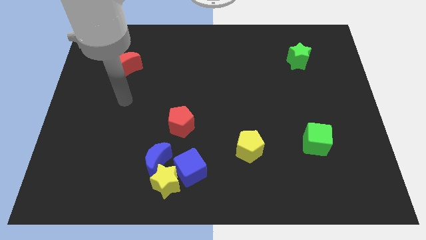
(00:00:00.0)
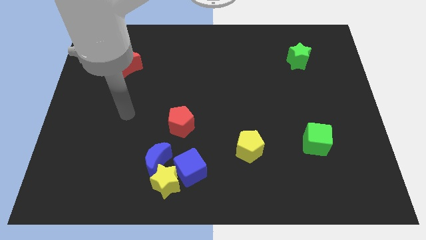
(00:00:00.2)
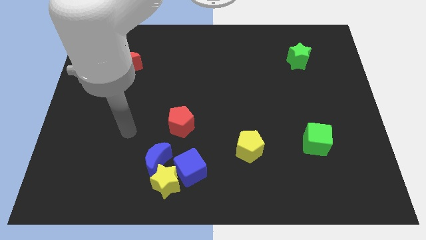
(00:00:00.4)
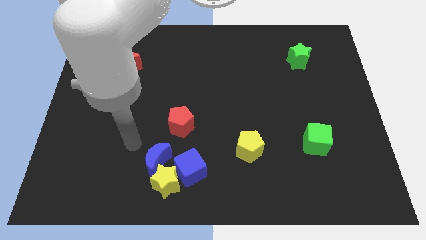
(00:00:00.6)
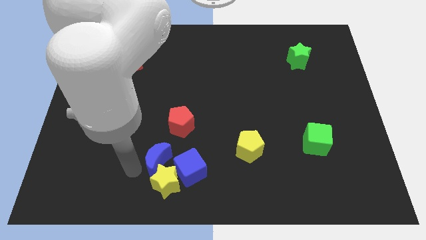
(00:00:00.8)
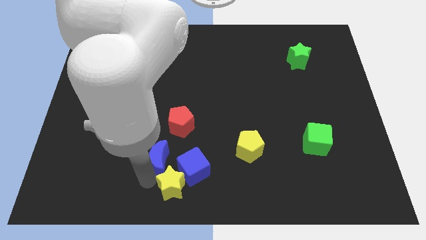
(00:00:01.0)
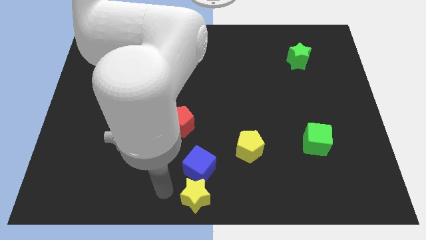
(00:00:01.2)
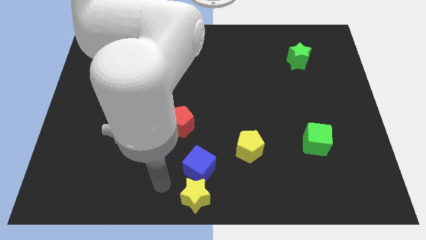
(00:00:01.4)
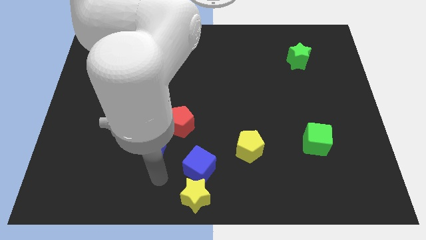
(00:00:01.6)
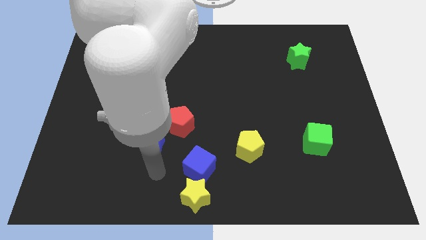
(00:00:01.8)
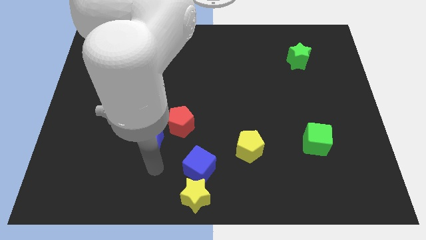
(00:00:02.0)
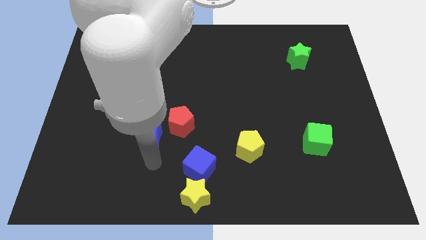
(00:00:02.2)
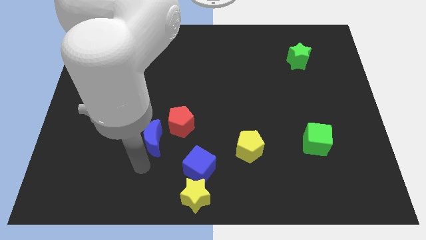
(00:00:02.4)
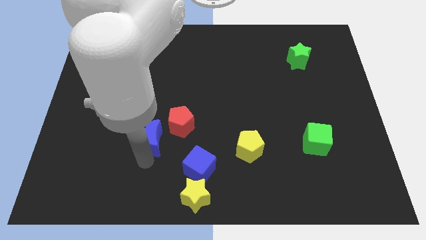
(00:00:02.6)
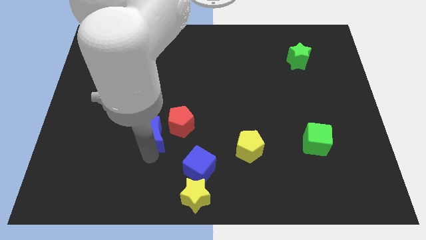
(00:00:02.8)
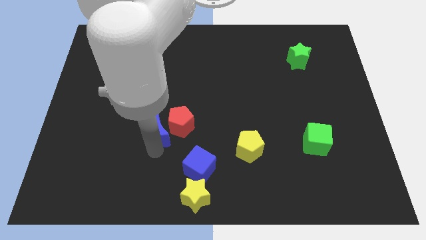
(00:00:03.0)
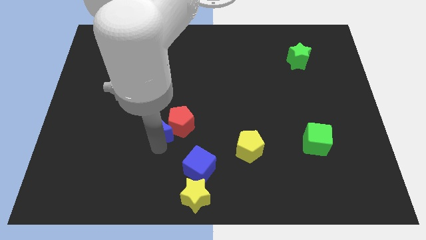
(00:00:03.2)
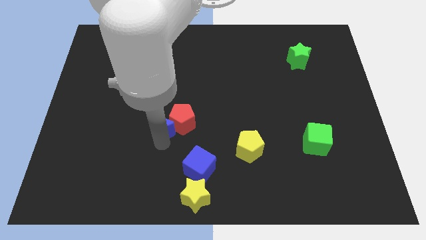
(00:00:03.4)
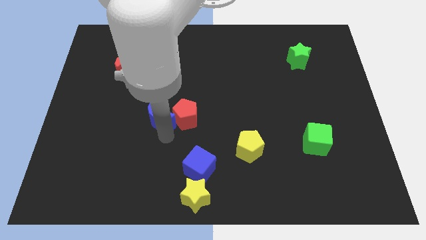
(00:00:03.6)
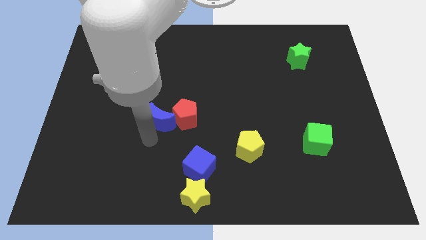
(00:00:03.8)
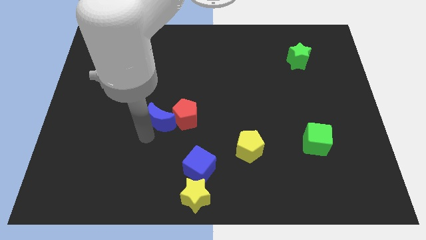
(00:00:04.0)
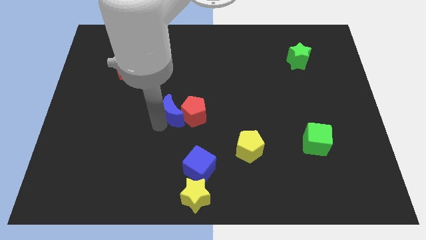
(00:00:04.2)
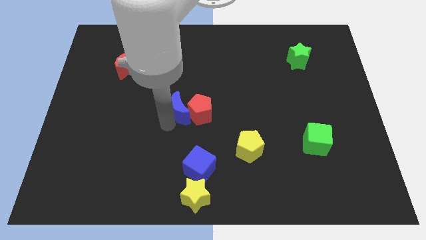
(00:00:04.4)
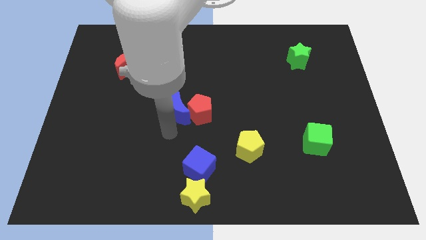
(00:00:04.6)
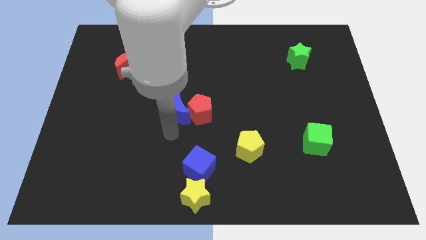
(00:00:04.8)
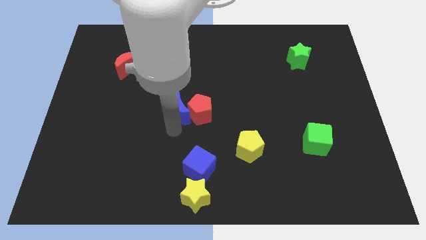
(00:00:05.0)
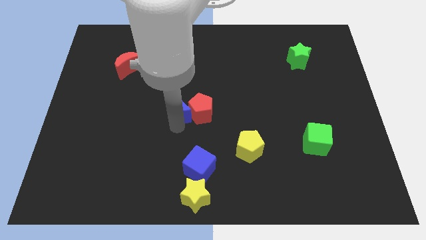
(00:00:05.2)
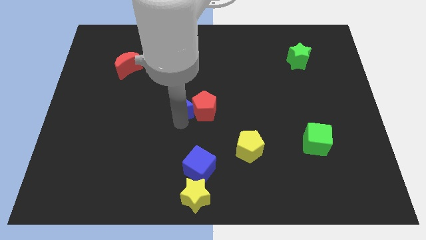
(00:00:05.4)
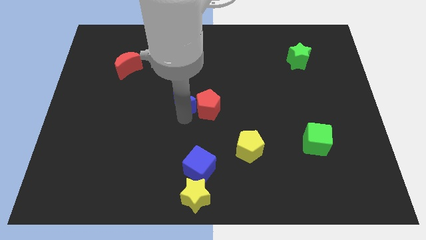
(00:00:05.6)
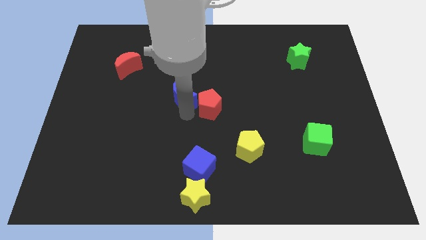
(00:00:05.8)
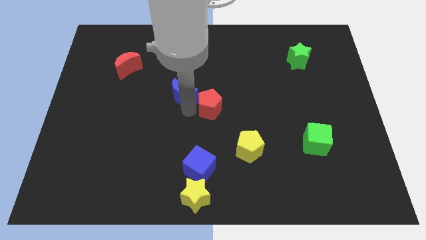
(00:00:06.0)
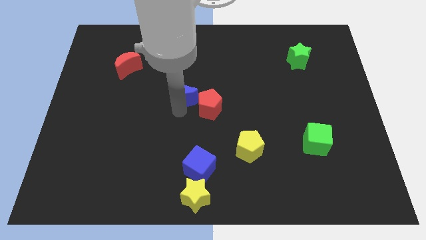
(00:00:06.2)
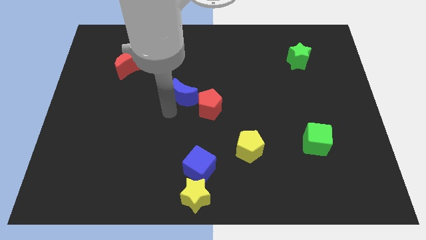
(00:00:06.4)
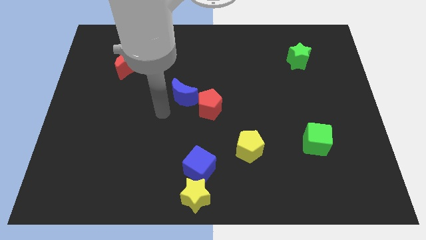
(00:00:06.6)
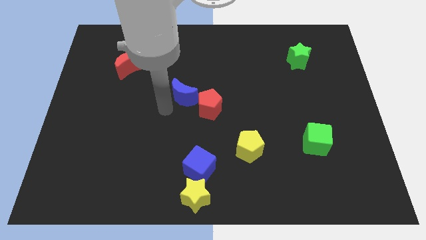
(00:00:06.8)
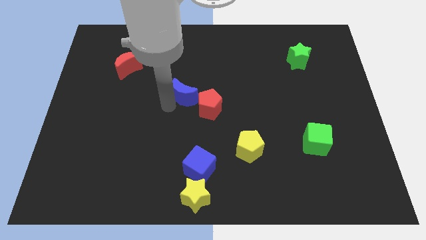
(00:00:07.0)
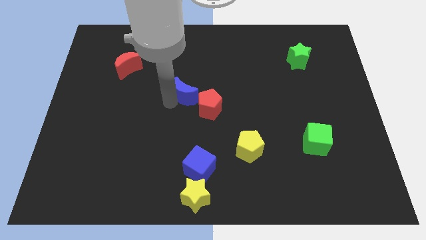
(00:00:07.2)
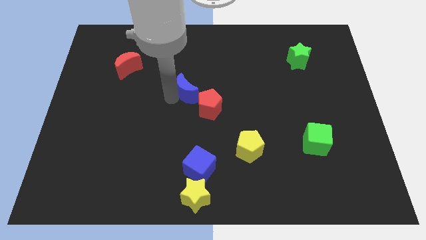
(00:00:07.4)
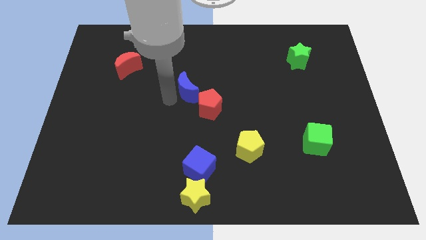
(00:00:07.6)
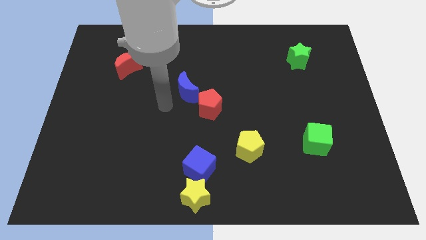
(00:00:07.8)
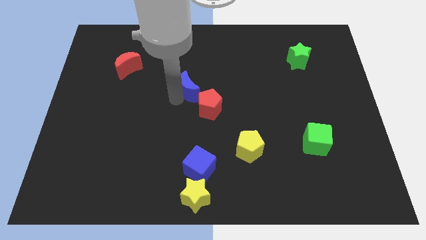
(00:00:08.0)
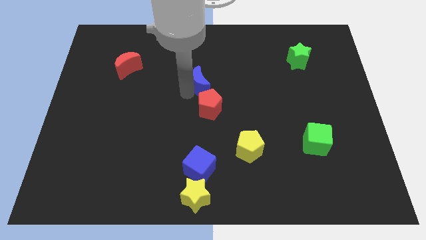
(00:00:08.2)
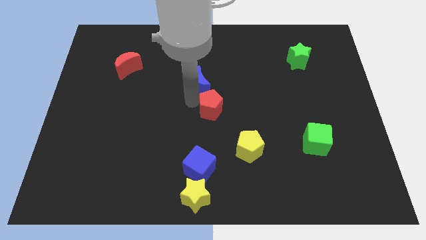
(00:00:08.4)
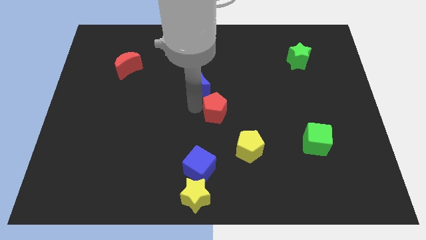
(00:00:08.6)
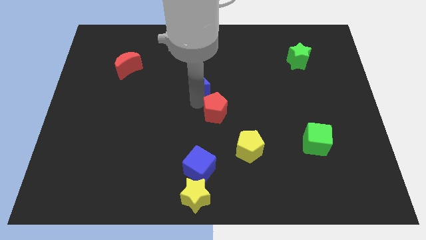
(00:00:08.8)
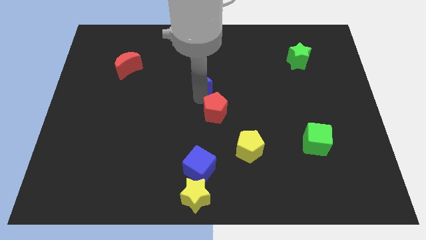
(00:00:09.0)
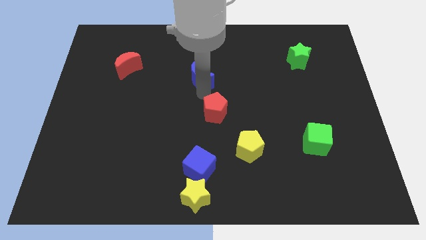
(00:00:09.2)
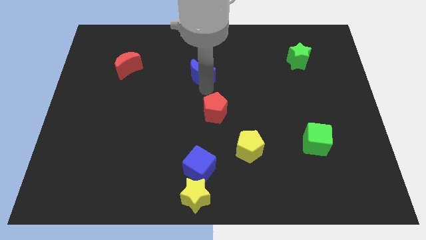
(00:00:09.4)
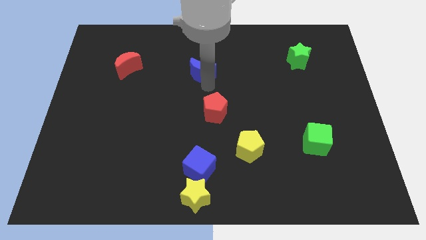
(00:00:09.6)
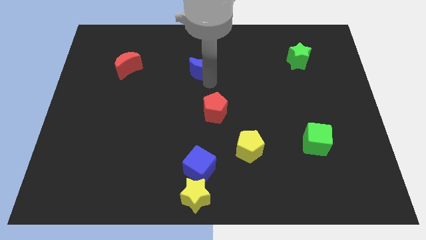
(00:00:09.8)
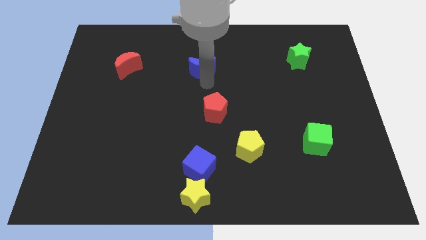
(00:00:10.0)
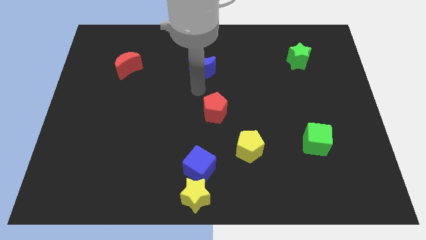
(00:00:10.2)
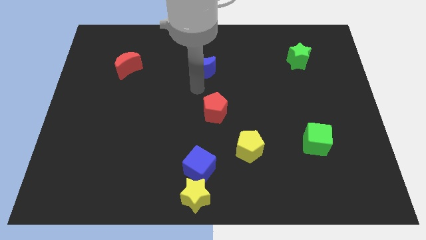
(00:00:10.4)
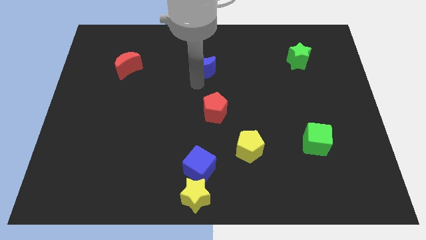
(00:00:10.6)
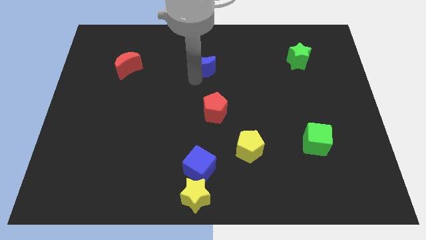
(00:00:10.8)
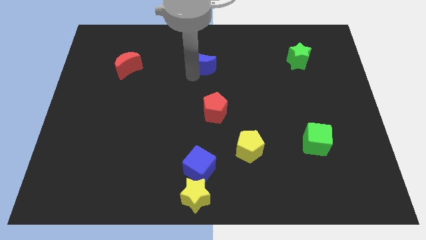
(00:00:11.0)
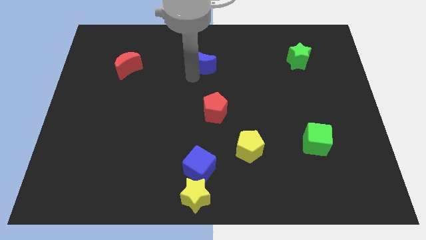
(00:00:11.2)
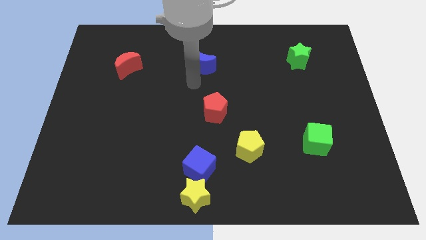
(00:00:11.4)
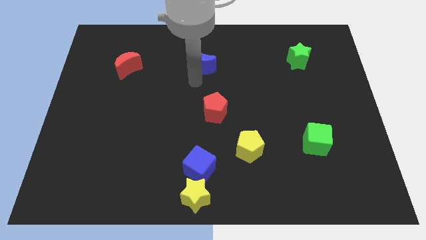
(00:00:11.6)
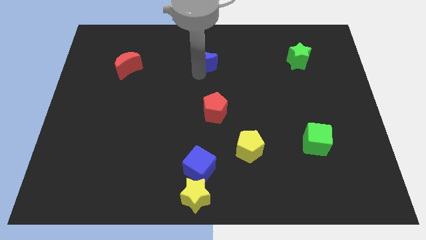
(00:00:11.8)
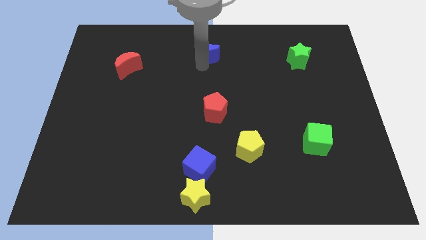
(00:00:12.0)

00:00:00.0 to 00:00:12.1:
push the blue moon to the towards your base
